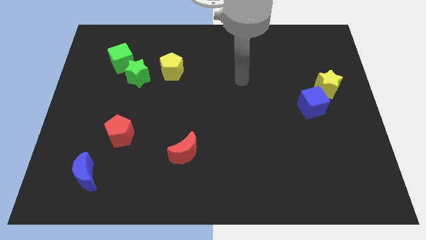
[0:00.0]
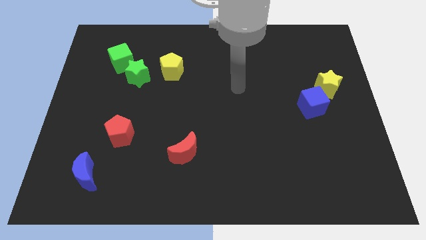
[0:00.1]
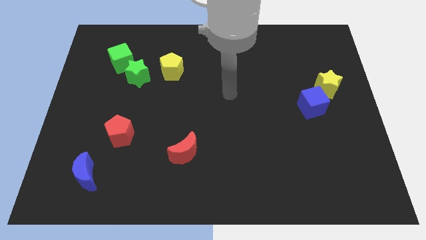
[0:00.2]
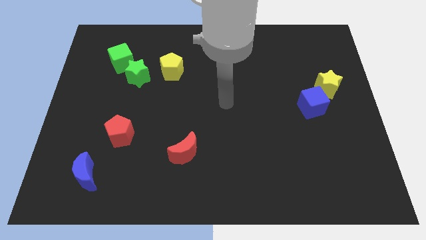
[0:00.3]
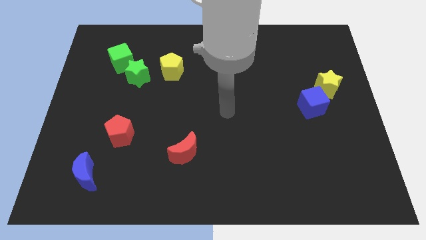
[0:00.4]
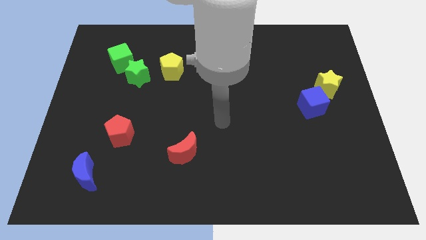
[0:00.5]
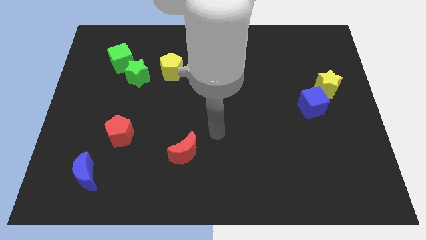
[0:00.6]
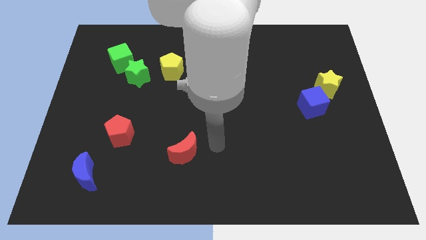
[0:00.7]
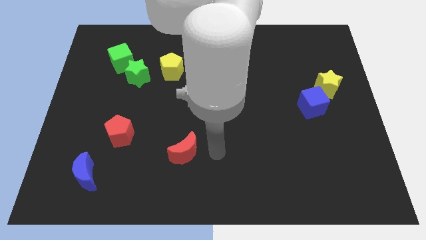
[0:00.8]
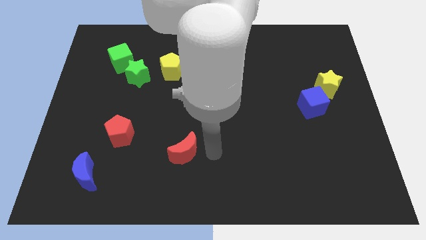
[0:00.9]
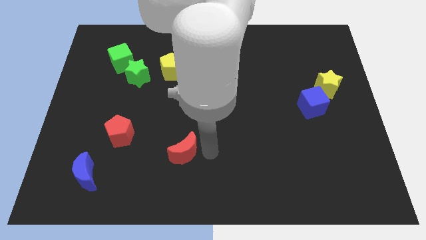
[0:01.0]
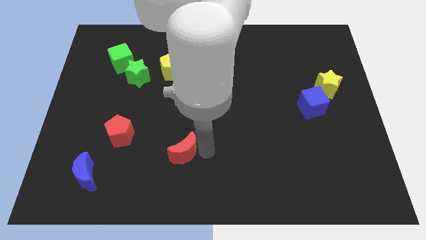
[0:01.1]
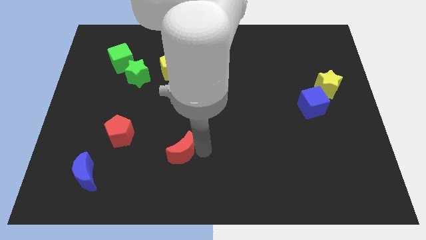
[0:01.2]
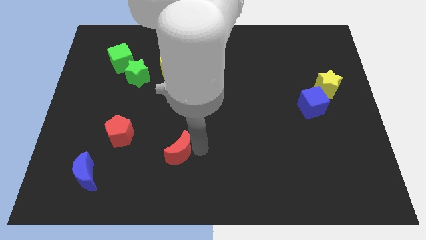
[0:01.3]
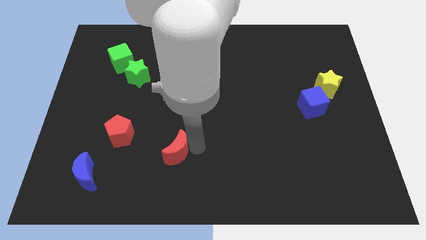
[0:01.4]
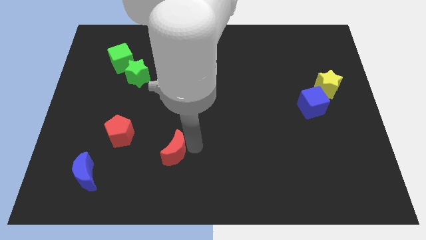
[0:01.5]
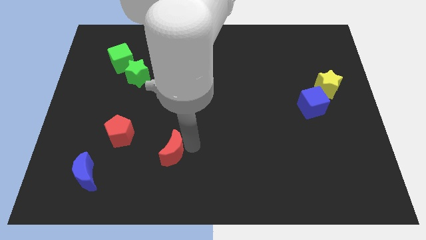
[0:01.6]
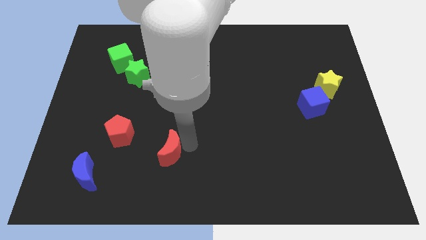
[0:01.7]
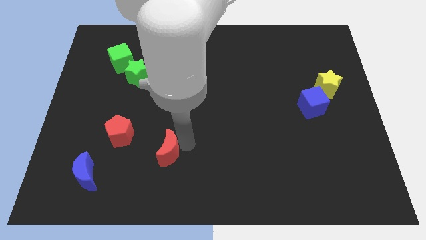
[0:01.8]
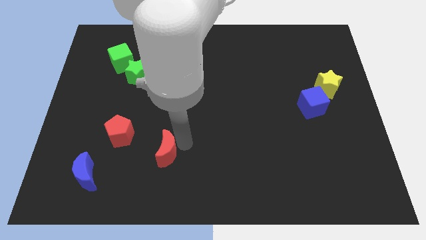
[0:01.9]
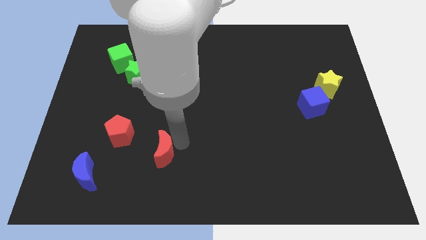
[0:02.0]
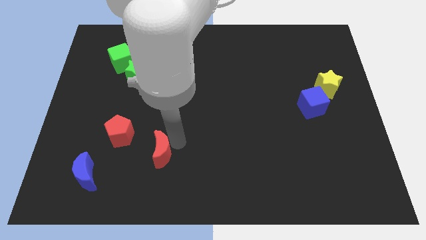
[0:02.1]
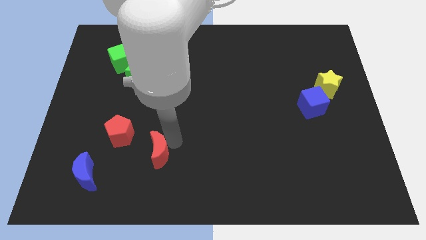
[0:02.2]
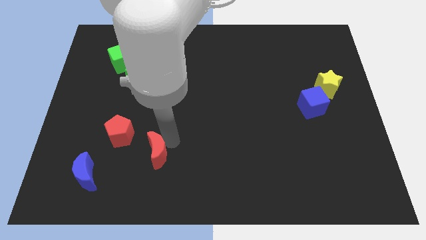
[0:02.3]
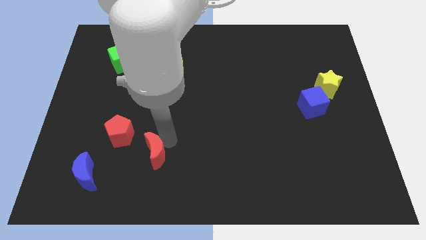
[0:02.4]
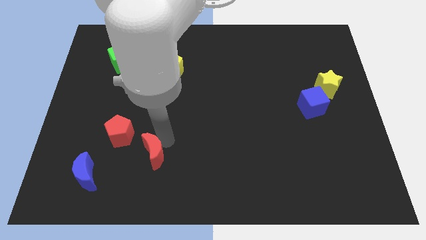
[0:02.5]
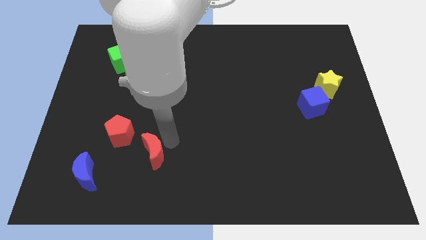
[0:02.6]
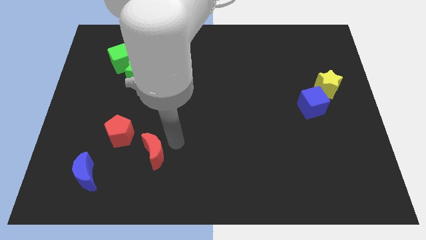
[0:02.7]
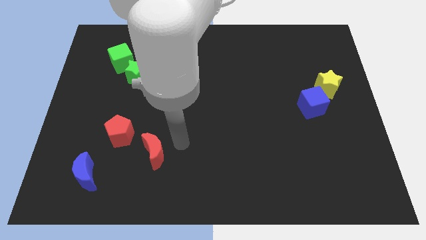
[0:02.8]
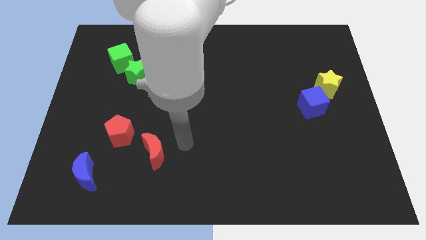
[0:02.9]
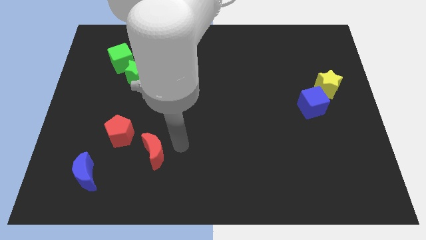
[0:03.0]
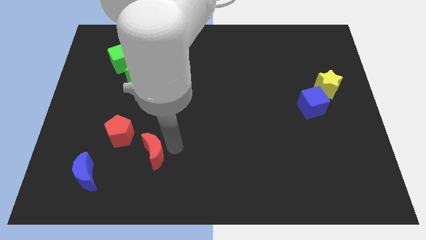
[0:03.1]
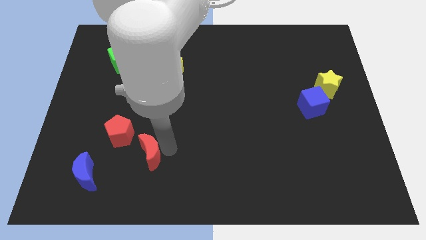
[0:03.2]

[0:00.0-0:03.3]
slide the red moon slightly left

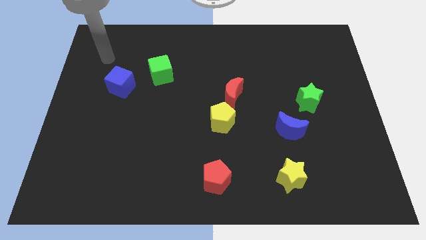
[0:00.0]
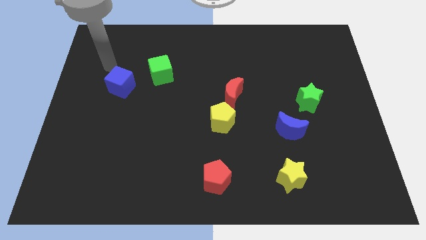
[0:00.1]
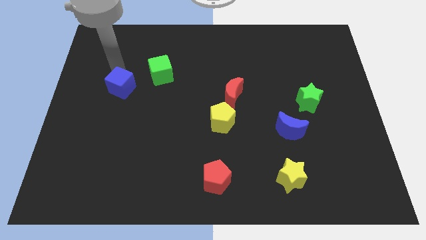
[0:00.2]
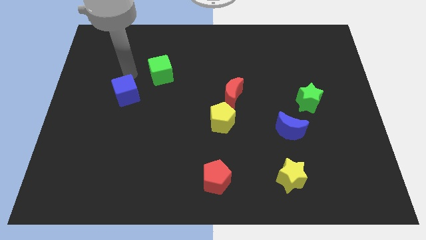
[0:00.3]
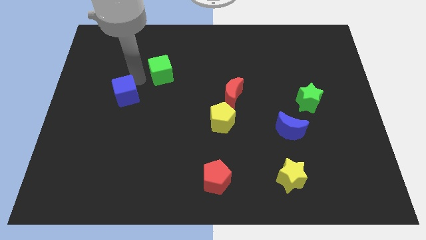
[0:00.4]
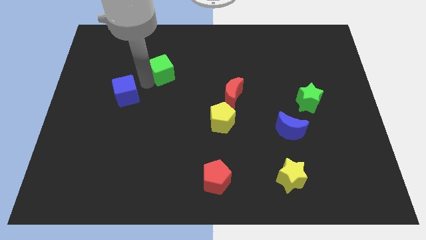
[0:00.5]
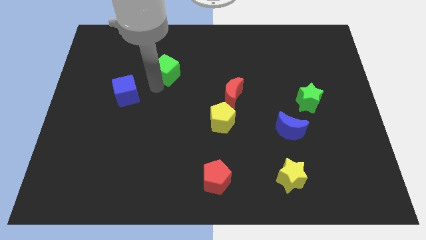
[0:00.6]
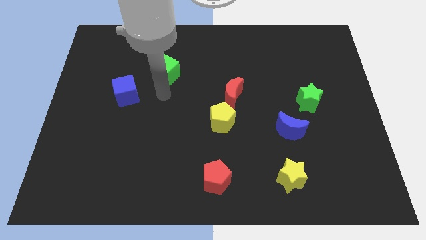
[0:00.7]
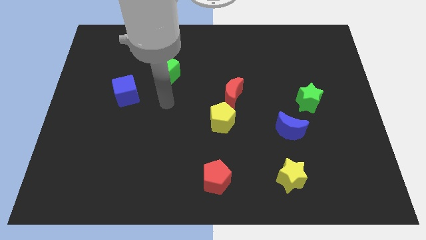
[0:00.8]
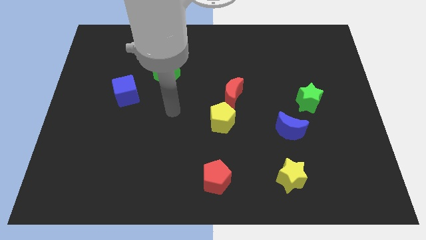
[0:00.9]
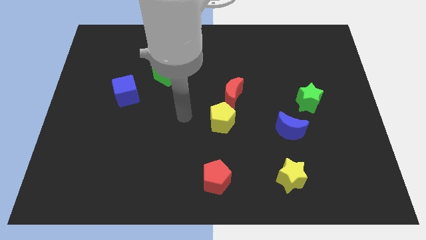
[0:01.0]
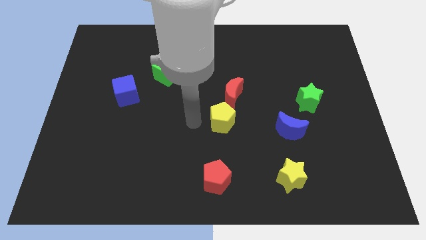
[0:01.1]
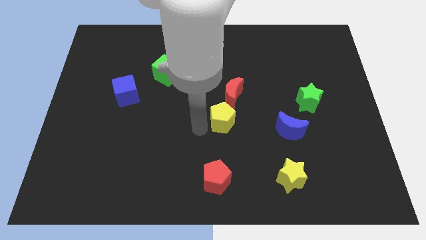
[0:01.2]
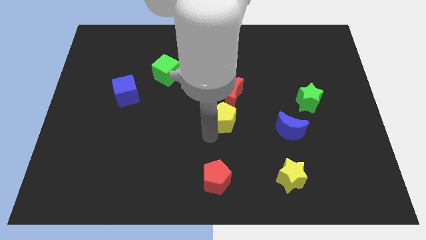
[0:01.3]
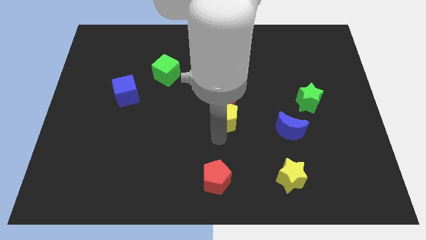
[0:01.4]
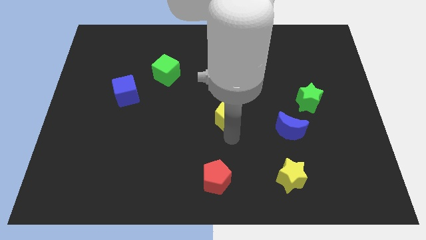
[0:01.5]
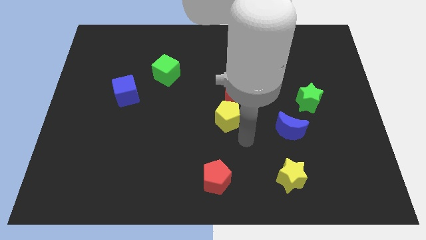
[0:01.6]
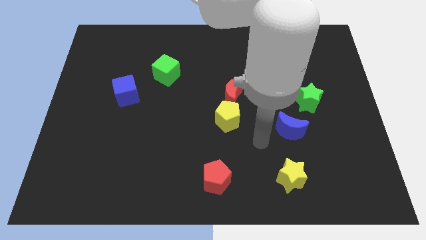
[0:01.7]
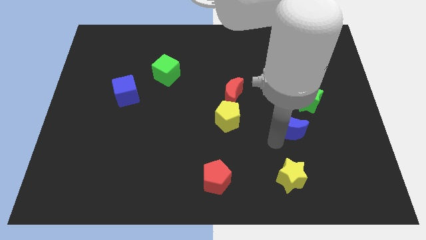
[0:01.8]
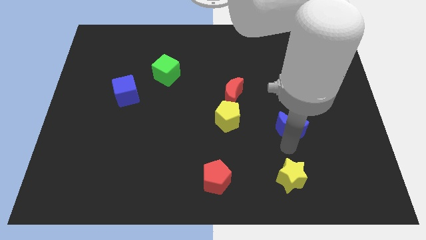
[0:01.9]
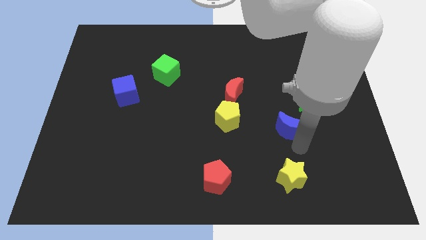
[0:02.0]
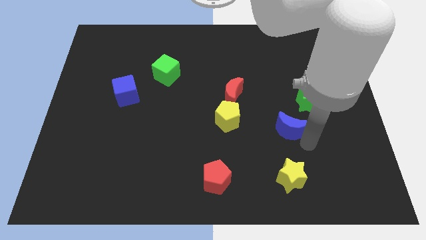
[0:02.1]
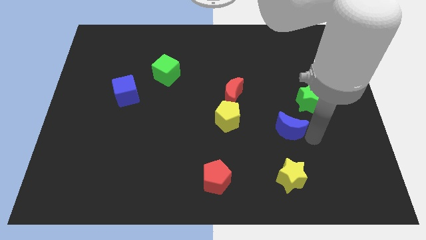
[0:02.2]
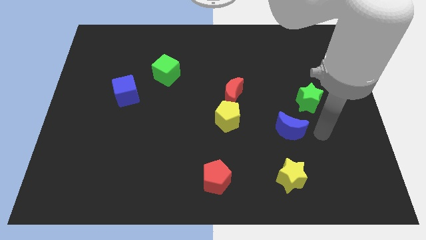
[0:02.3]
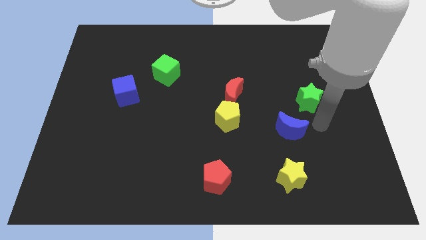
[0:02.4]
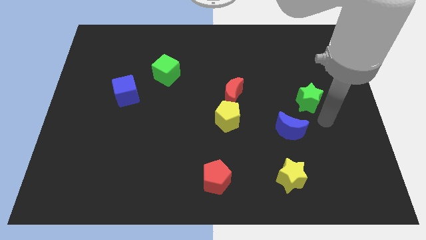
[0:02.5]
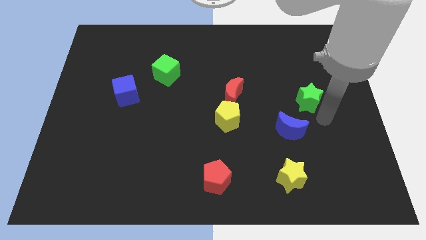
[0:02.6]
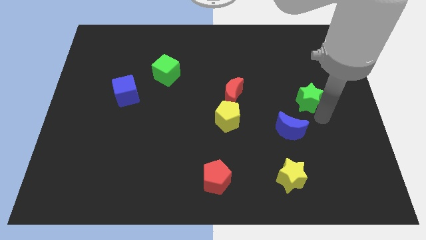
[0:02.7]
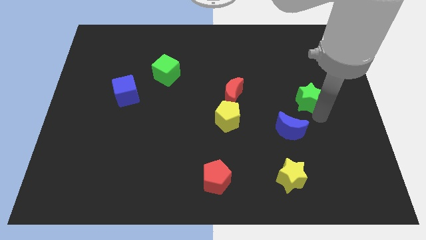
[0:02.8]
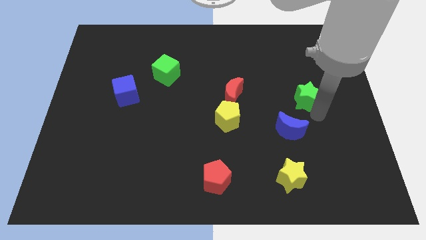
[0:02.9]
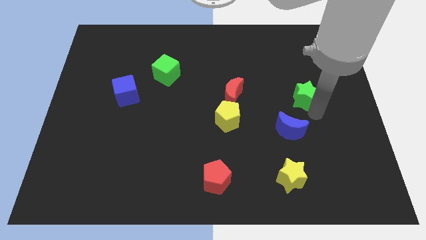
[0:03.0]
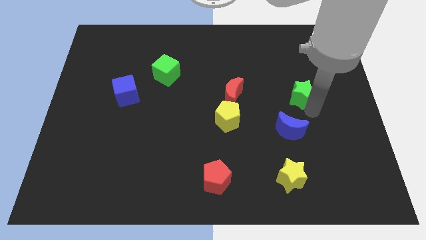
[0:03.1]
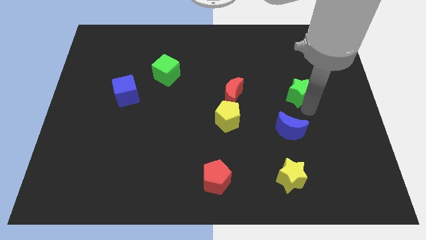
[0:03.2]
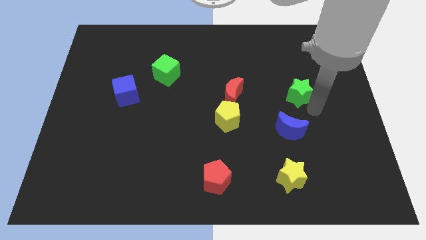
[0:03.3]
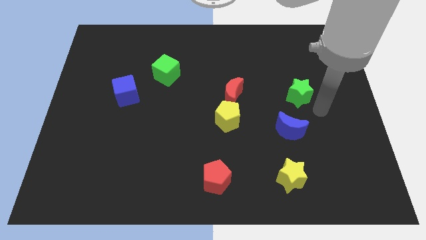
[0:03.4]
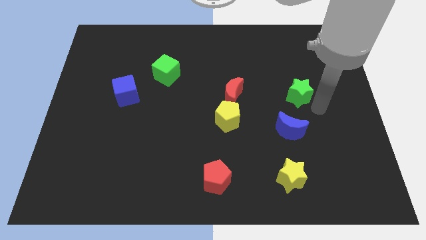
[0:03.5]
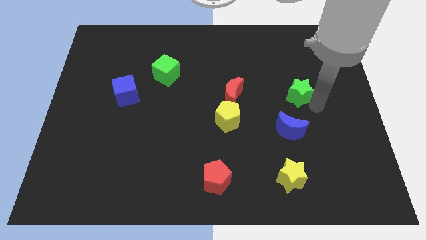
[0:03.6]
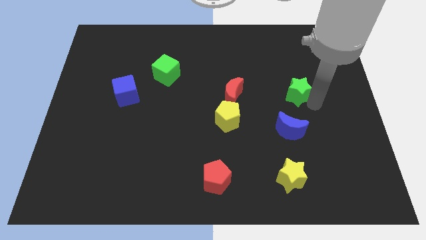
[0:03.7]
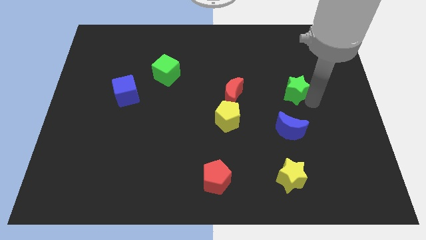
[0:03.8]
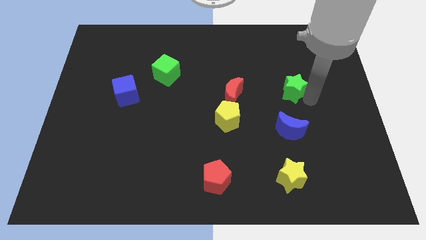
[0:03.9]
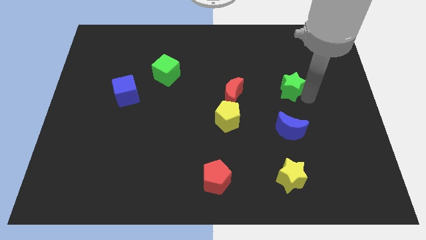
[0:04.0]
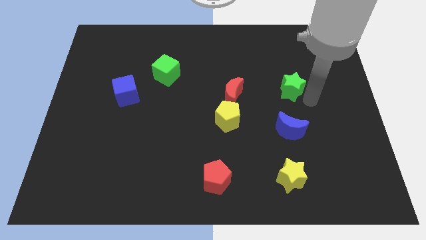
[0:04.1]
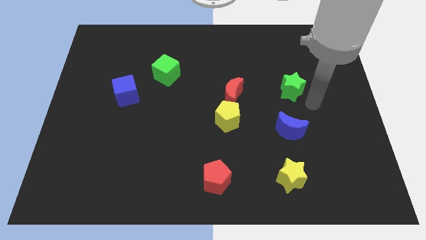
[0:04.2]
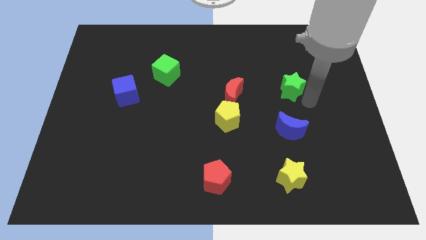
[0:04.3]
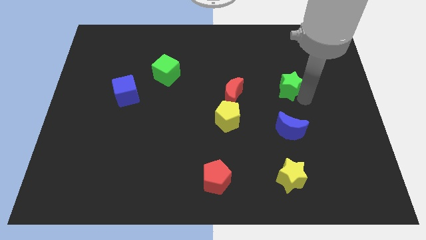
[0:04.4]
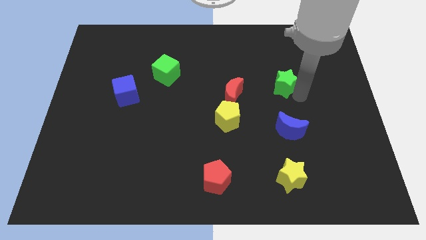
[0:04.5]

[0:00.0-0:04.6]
slide the green star upwards and to the left diagonally a little

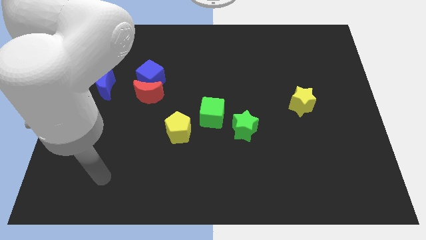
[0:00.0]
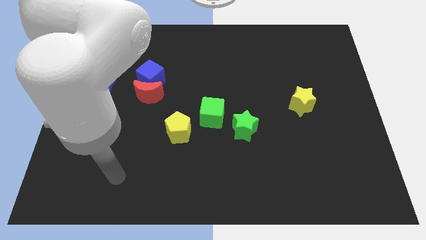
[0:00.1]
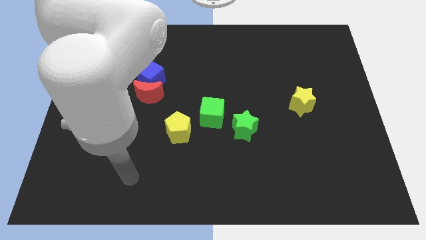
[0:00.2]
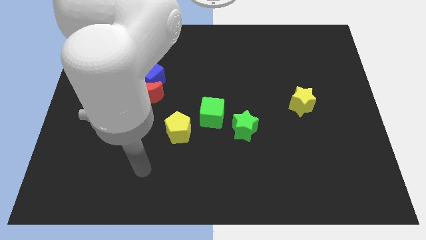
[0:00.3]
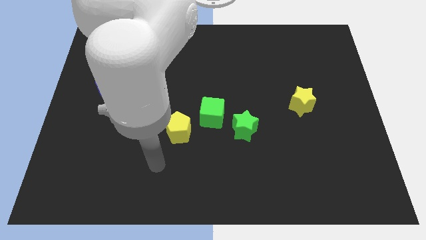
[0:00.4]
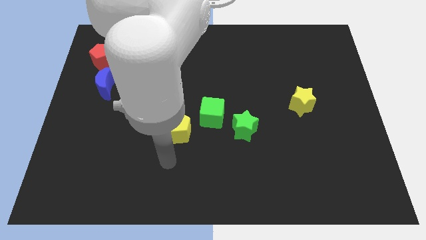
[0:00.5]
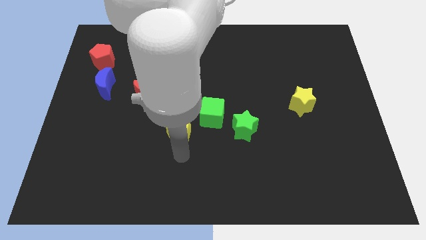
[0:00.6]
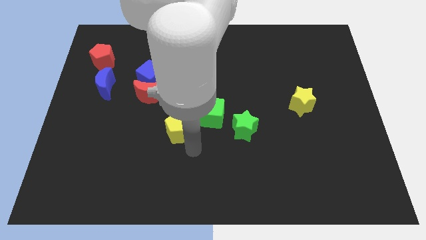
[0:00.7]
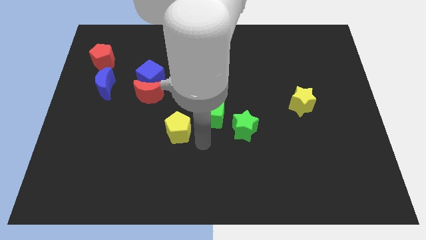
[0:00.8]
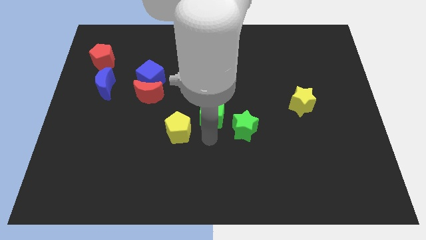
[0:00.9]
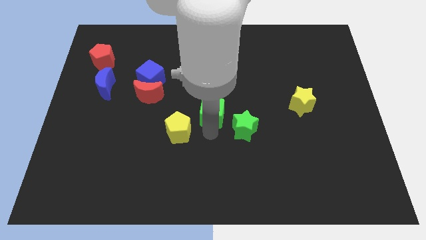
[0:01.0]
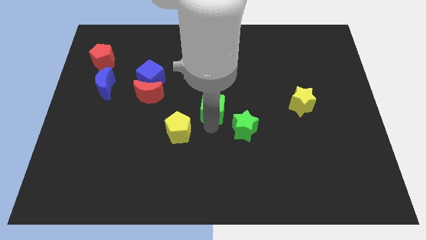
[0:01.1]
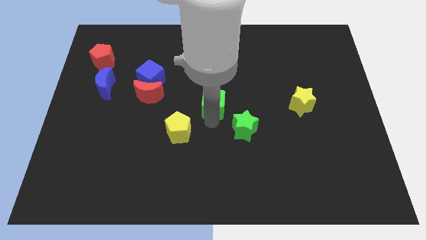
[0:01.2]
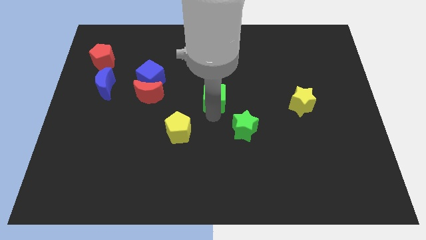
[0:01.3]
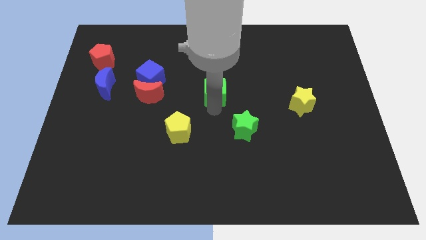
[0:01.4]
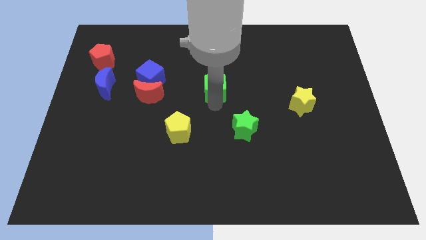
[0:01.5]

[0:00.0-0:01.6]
push the green cube a little bit upwards
